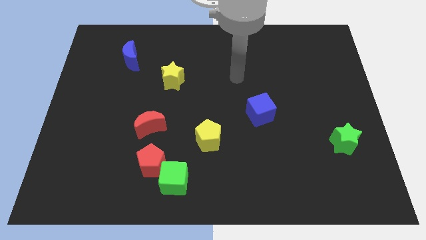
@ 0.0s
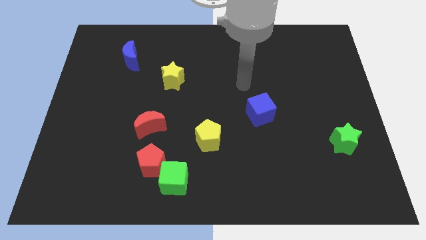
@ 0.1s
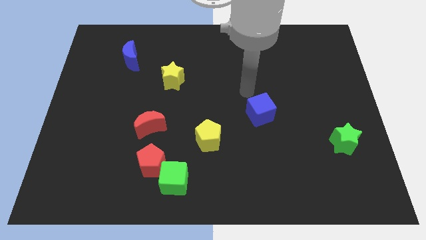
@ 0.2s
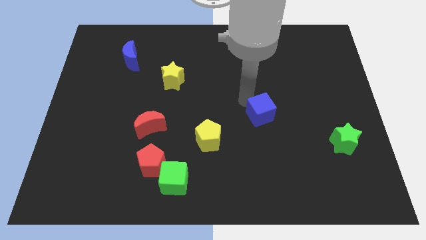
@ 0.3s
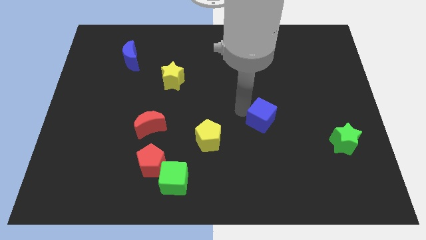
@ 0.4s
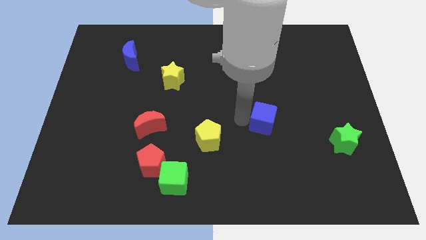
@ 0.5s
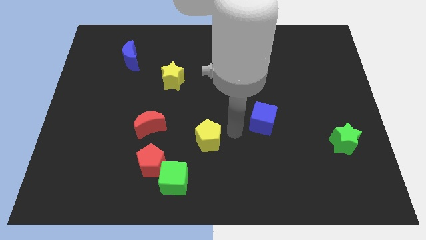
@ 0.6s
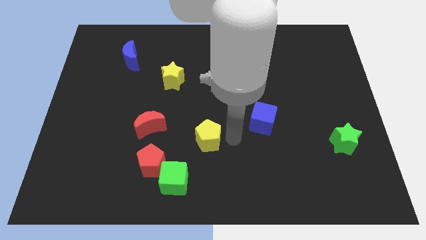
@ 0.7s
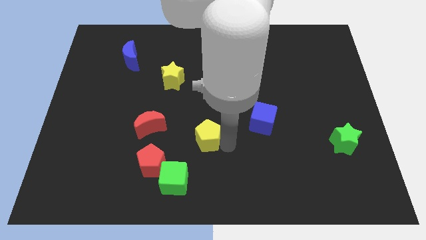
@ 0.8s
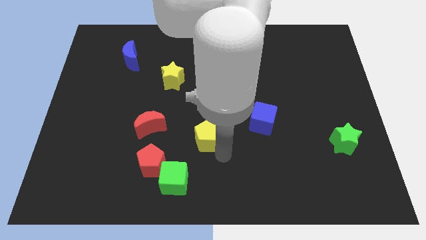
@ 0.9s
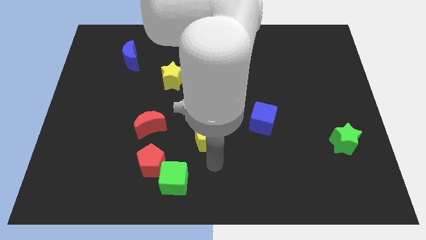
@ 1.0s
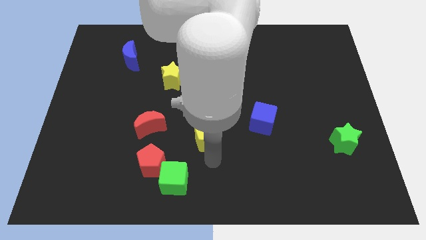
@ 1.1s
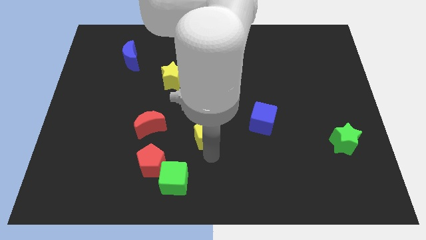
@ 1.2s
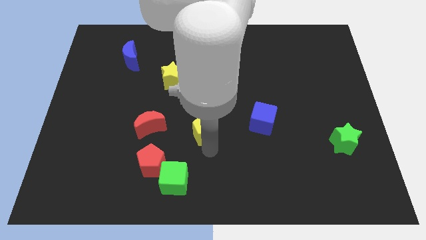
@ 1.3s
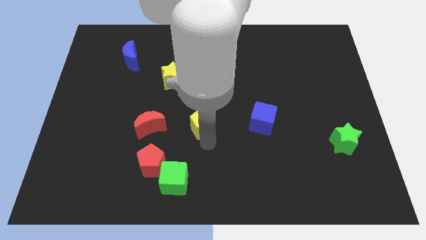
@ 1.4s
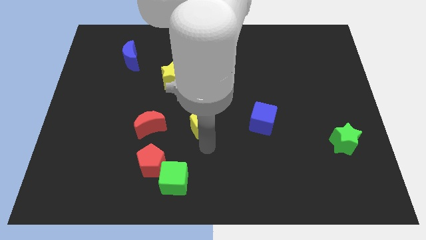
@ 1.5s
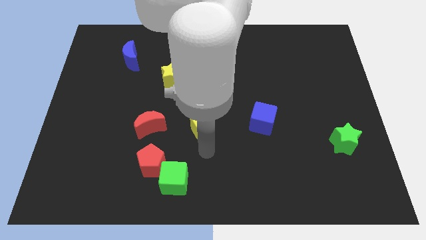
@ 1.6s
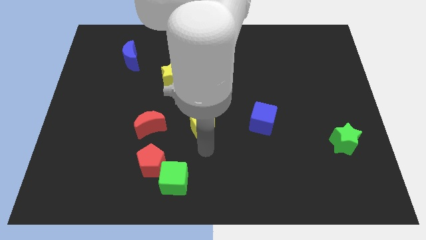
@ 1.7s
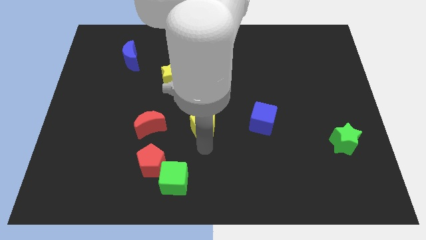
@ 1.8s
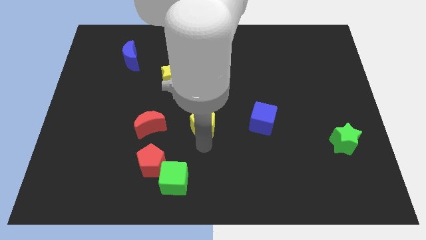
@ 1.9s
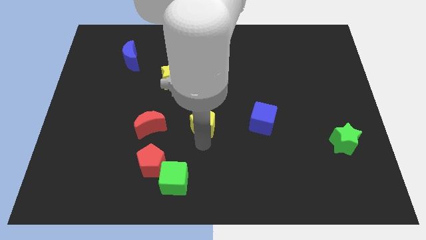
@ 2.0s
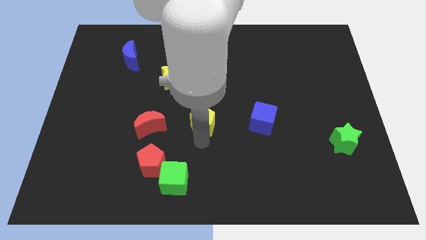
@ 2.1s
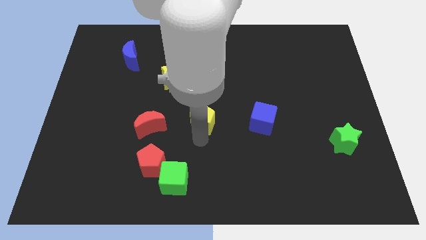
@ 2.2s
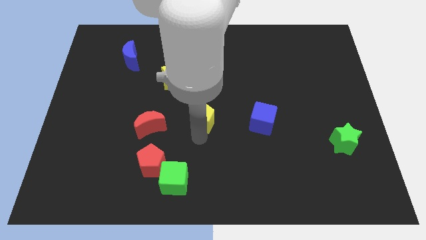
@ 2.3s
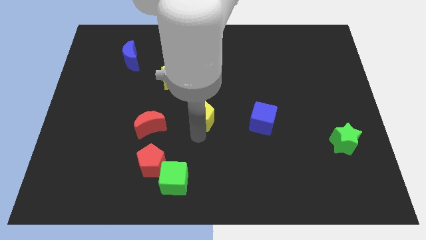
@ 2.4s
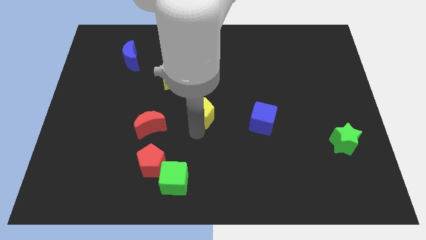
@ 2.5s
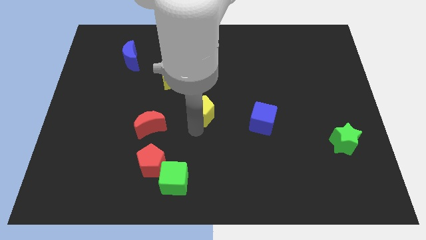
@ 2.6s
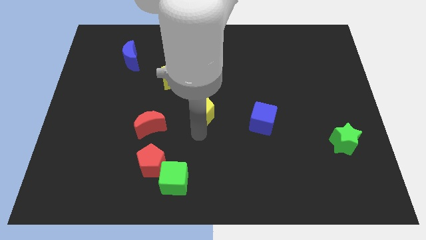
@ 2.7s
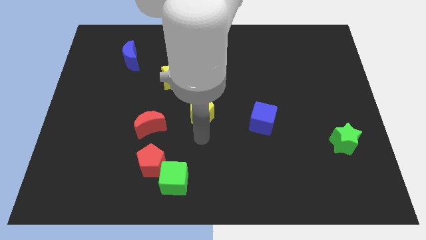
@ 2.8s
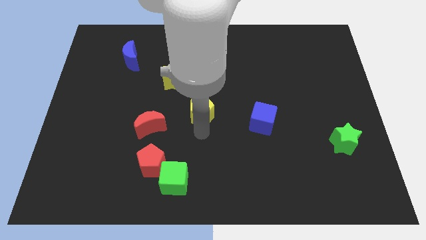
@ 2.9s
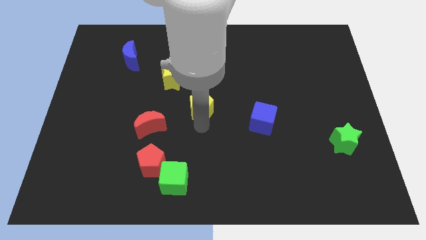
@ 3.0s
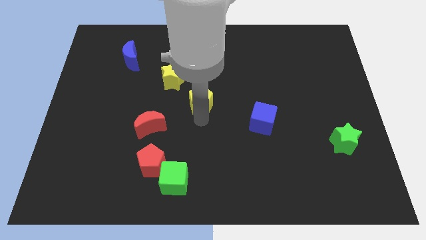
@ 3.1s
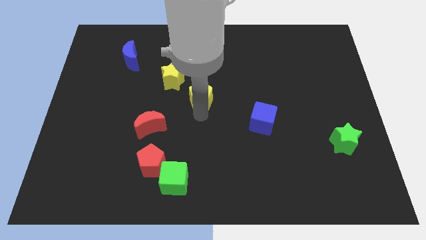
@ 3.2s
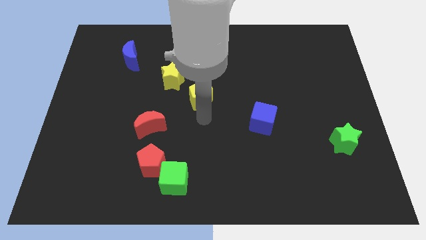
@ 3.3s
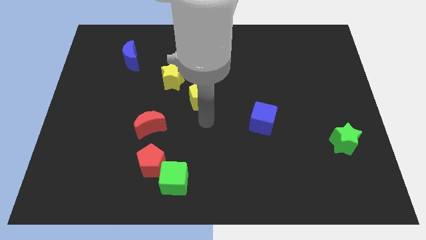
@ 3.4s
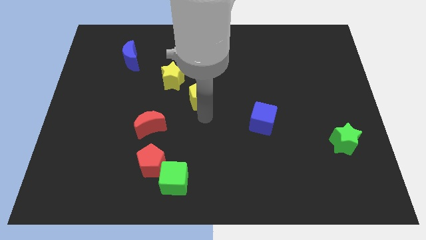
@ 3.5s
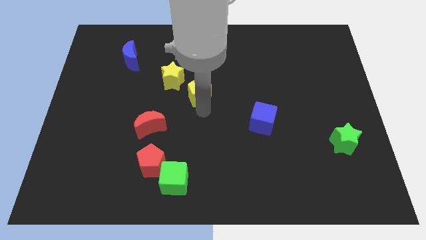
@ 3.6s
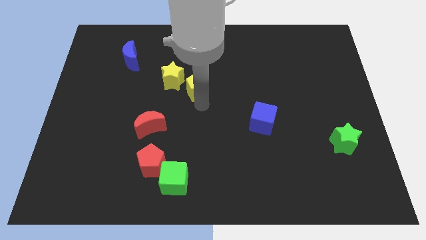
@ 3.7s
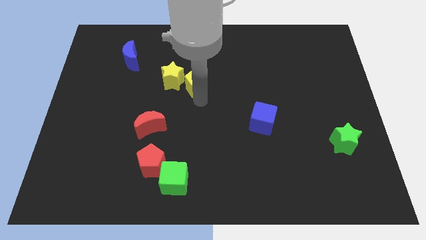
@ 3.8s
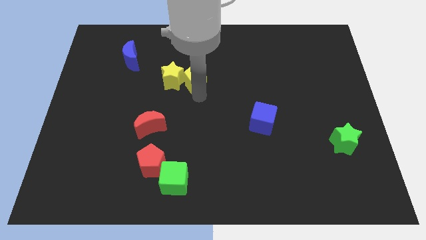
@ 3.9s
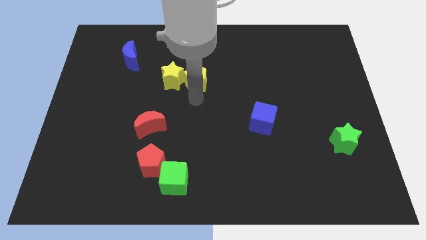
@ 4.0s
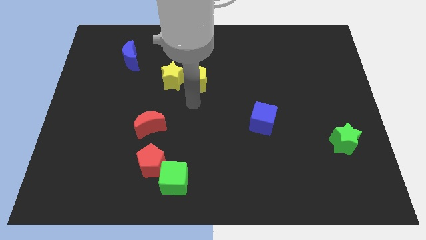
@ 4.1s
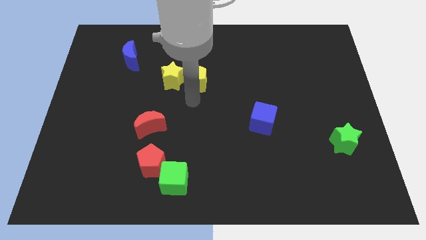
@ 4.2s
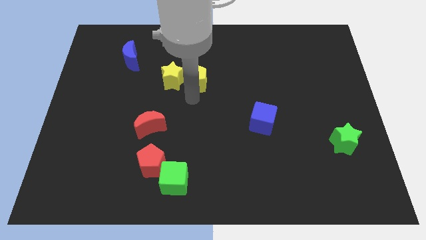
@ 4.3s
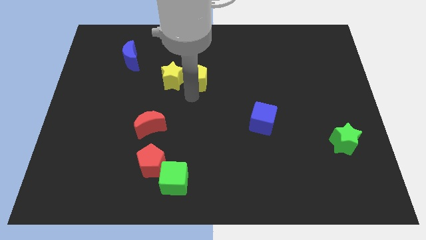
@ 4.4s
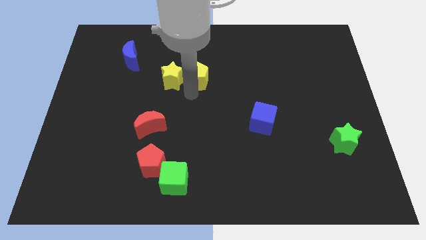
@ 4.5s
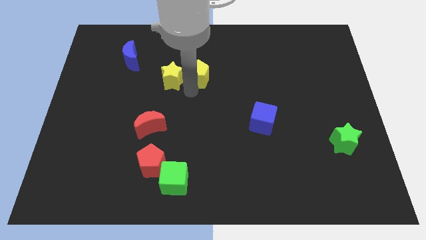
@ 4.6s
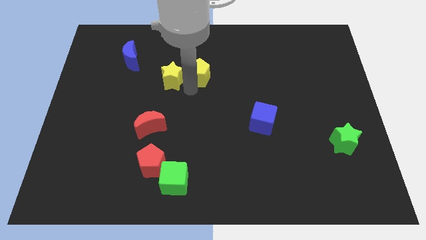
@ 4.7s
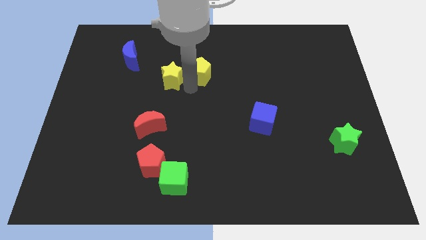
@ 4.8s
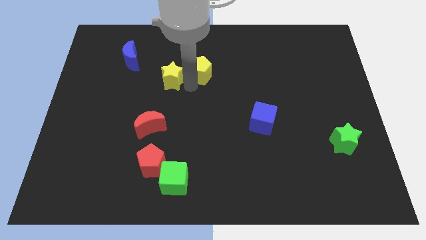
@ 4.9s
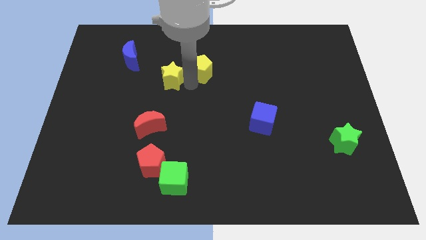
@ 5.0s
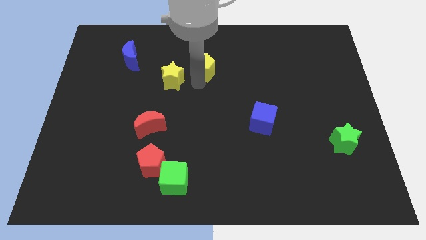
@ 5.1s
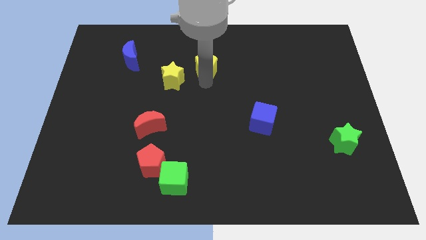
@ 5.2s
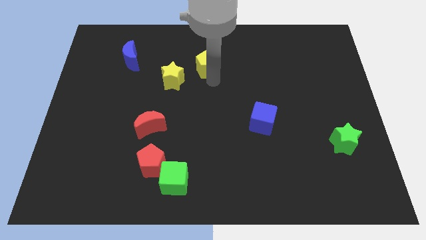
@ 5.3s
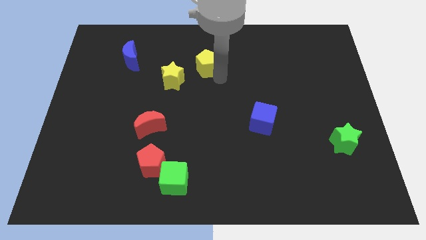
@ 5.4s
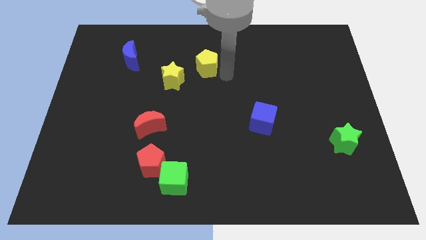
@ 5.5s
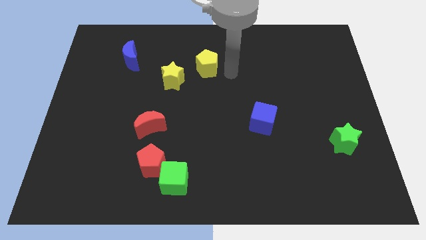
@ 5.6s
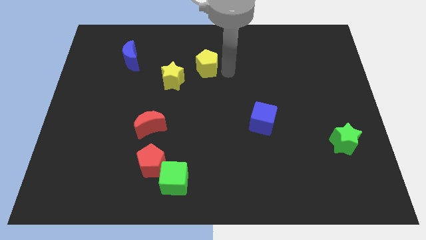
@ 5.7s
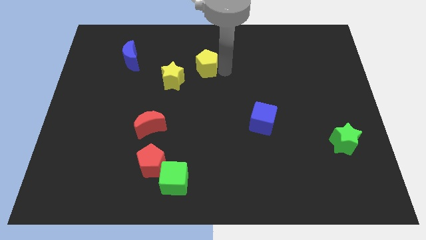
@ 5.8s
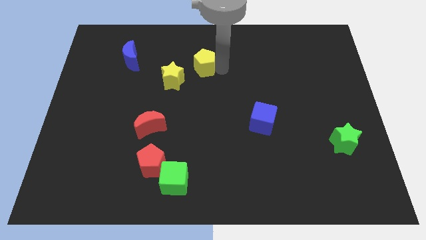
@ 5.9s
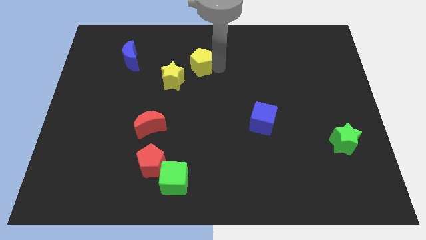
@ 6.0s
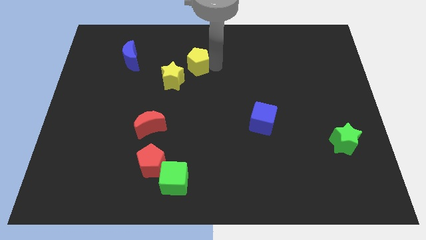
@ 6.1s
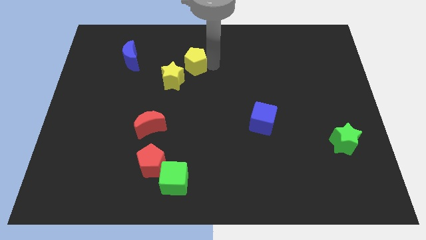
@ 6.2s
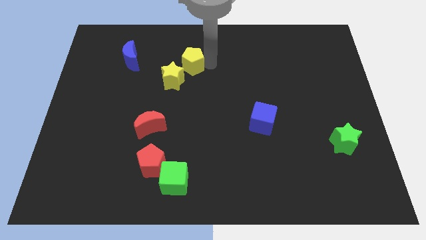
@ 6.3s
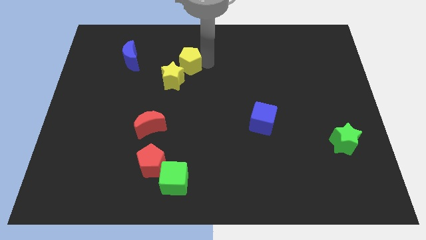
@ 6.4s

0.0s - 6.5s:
put the yellow pentagon to the right side of the blue moon
